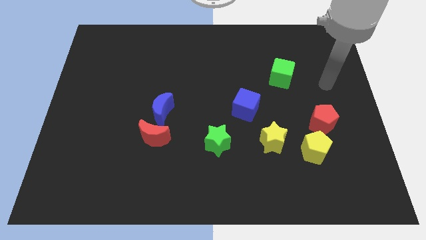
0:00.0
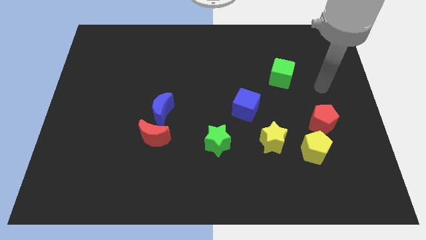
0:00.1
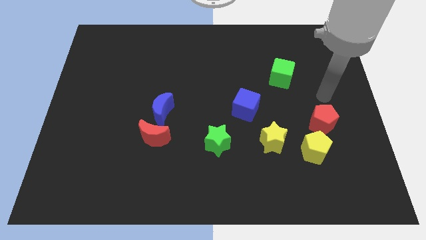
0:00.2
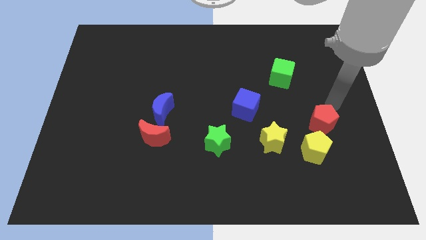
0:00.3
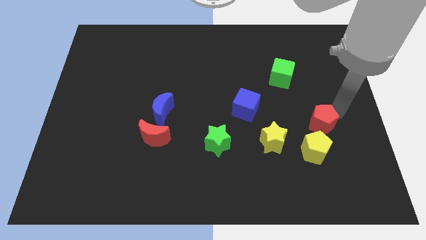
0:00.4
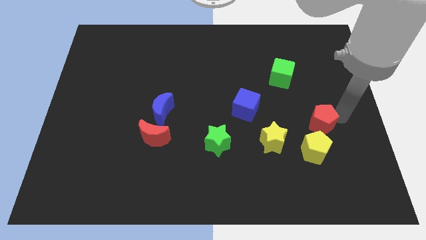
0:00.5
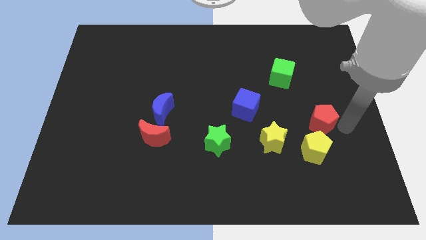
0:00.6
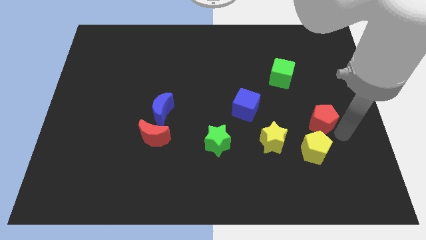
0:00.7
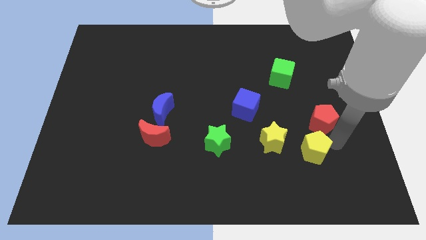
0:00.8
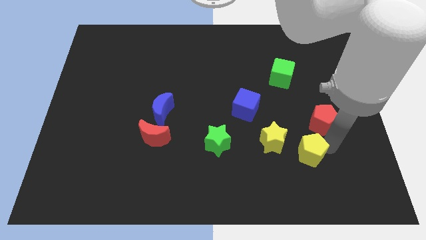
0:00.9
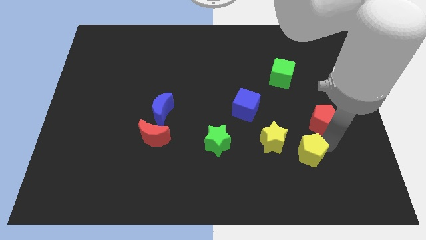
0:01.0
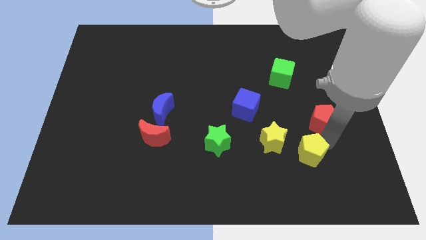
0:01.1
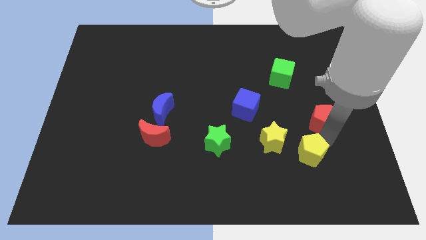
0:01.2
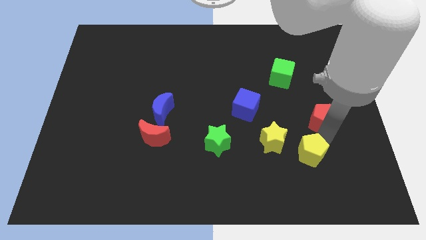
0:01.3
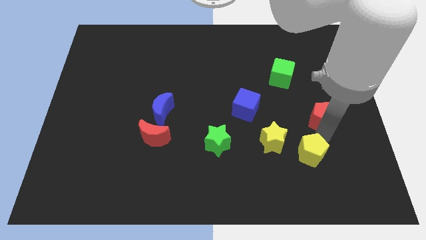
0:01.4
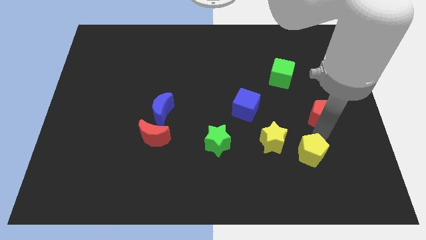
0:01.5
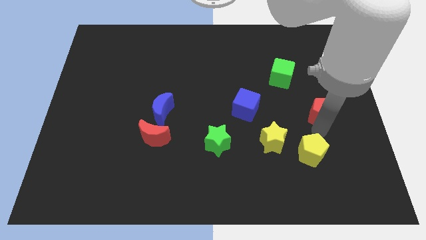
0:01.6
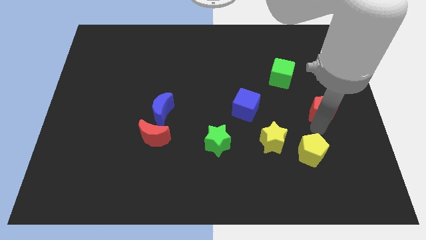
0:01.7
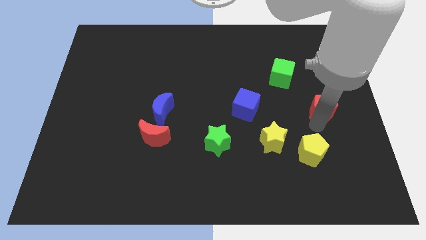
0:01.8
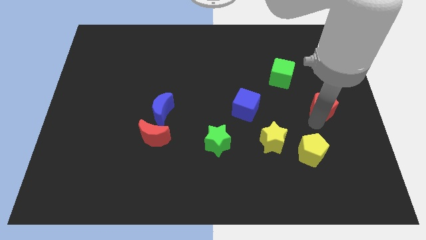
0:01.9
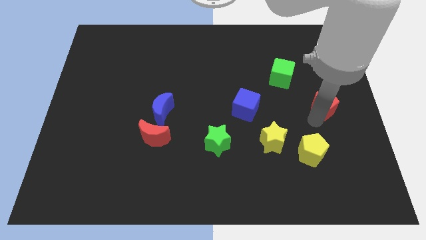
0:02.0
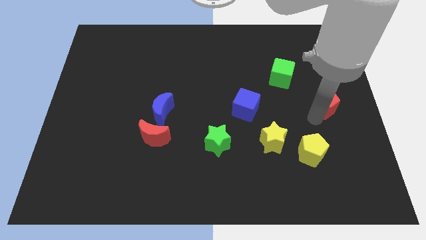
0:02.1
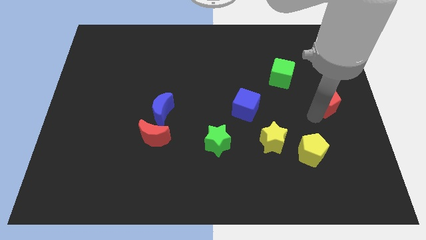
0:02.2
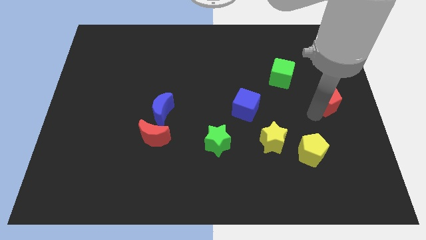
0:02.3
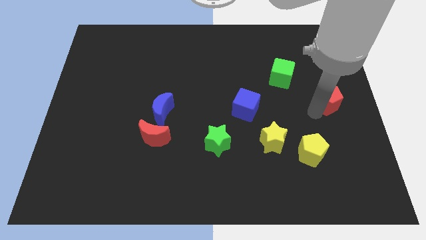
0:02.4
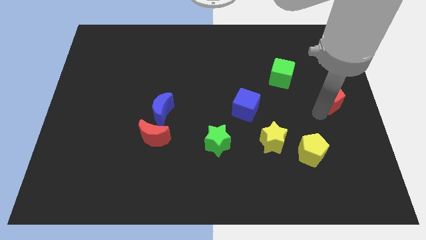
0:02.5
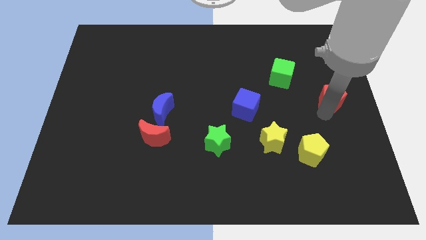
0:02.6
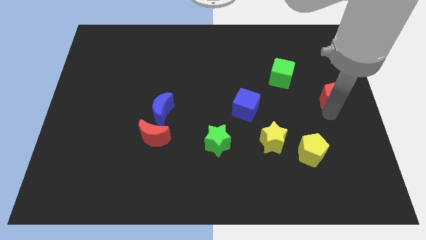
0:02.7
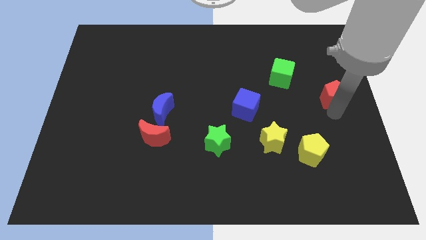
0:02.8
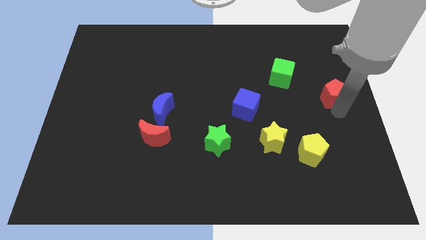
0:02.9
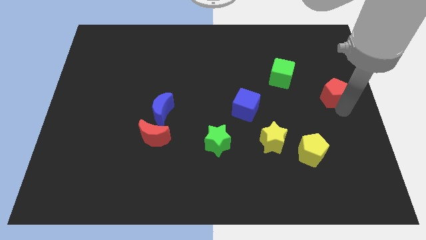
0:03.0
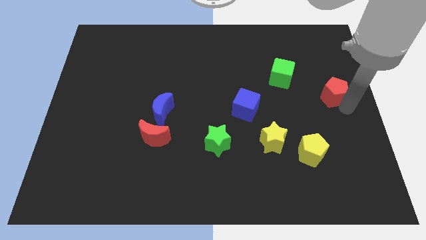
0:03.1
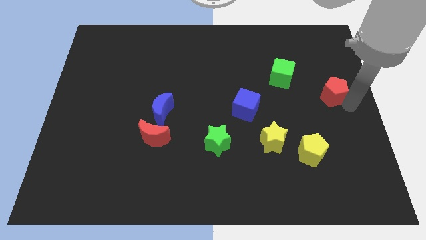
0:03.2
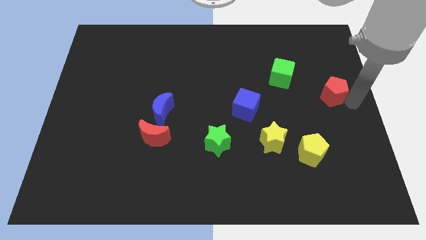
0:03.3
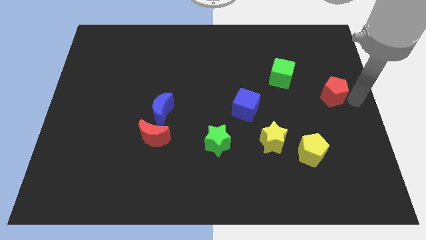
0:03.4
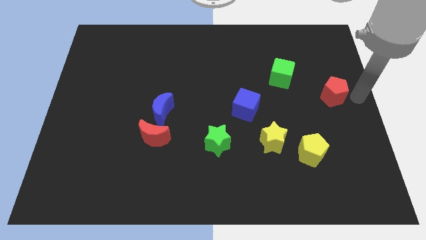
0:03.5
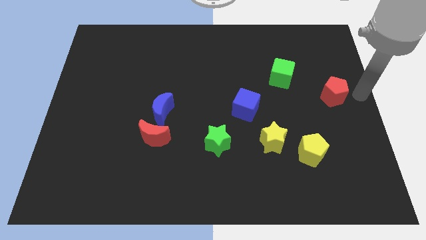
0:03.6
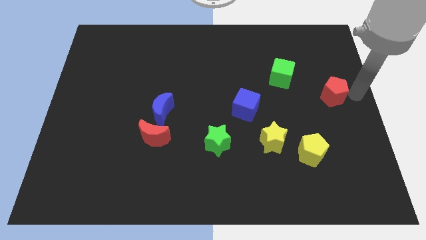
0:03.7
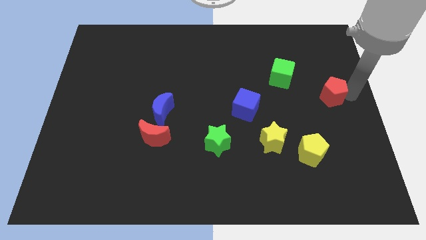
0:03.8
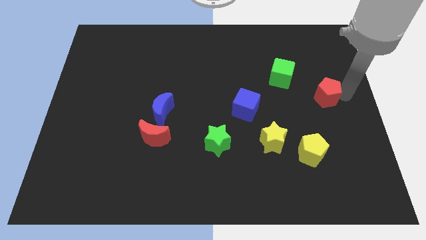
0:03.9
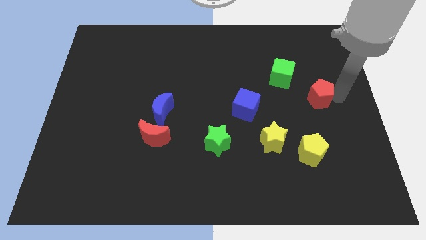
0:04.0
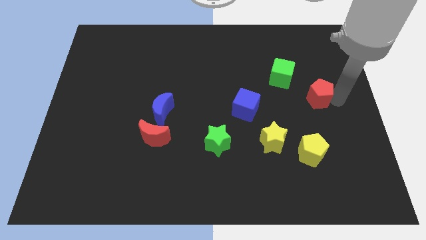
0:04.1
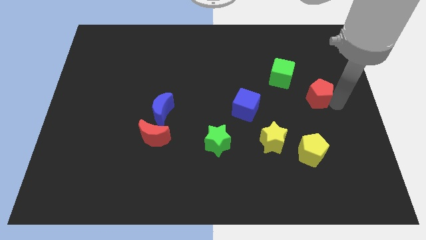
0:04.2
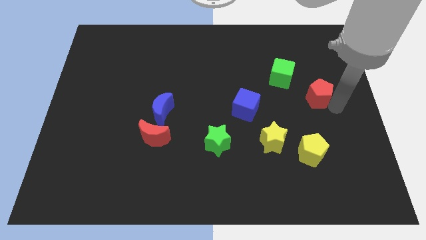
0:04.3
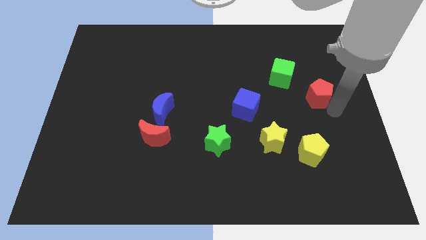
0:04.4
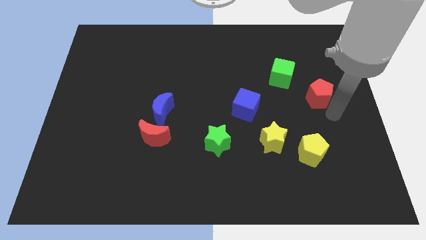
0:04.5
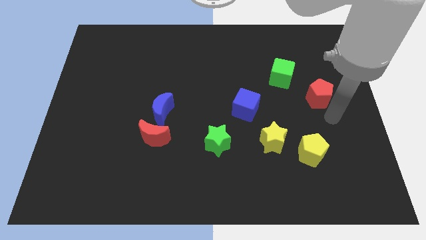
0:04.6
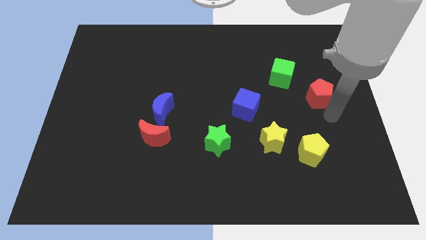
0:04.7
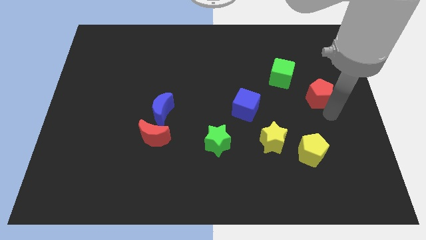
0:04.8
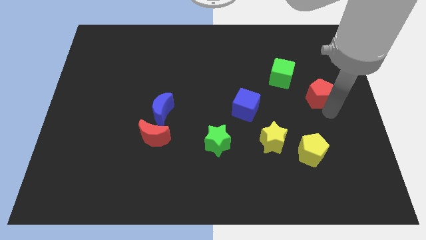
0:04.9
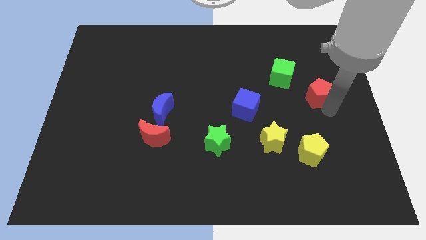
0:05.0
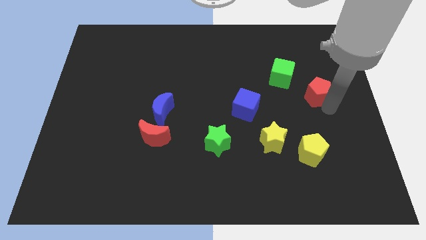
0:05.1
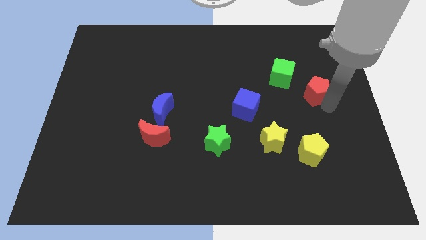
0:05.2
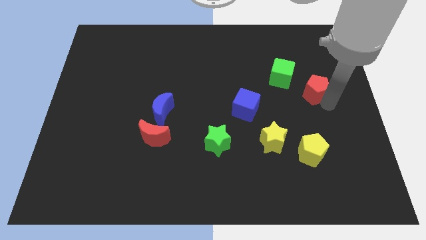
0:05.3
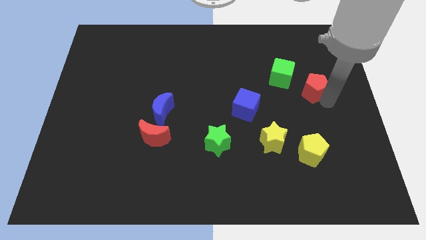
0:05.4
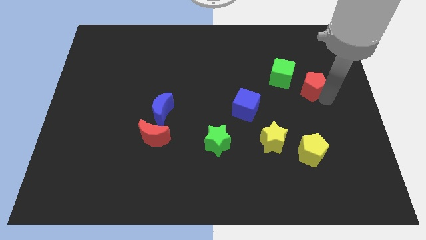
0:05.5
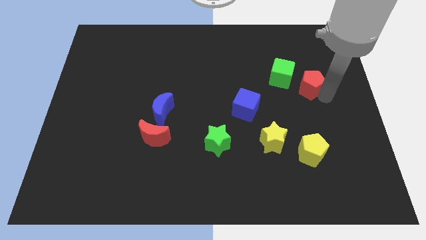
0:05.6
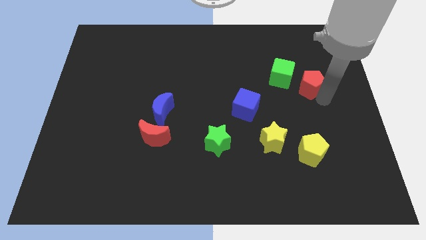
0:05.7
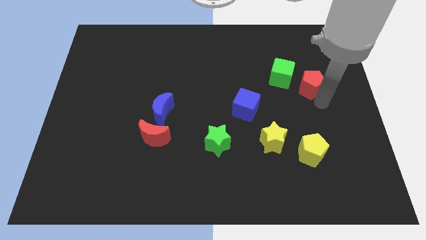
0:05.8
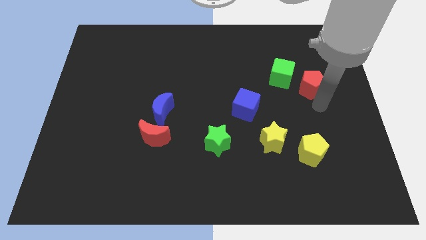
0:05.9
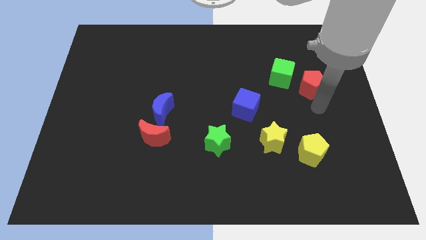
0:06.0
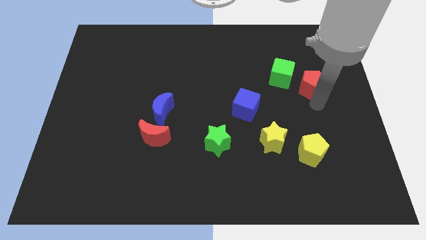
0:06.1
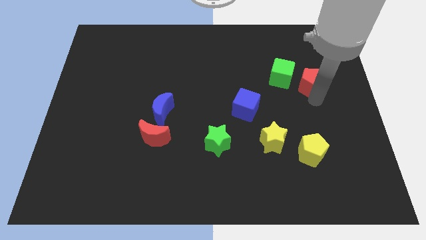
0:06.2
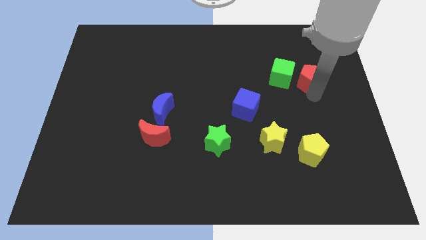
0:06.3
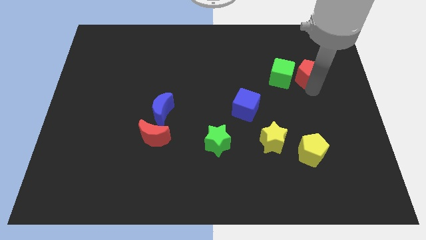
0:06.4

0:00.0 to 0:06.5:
slide the red pentagon to the top right of the green cube
